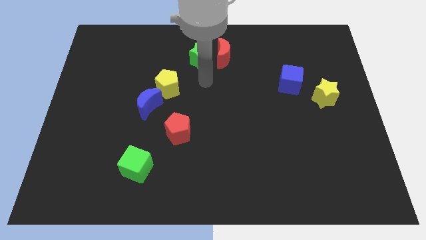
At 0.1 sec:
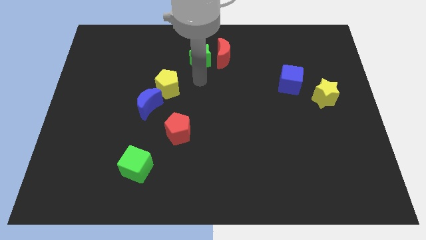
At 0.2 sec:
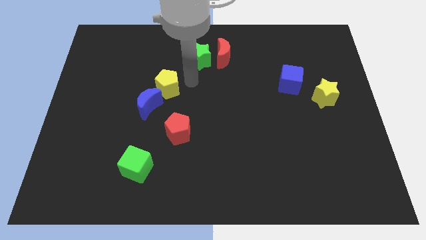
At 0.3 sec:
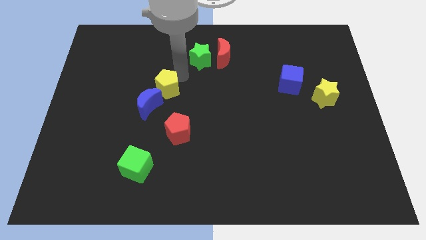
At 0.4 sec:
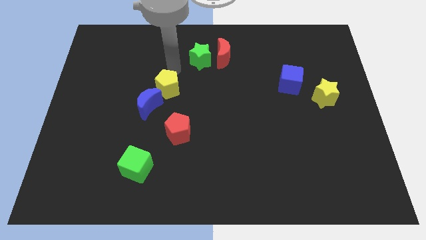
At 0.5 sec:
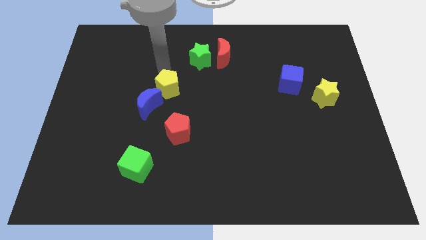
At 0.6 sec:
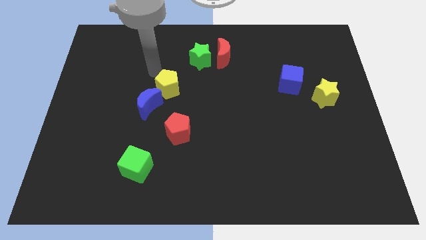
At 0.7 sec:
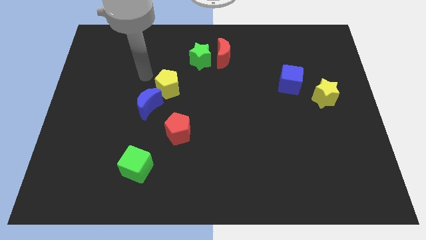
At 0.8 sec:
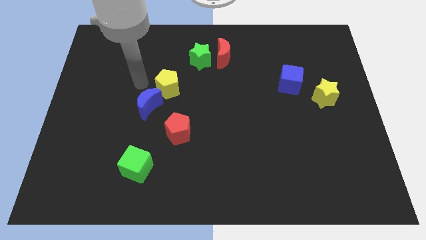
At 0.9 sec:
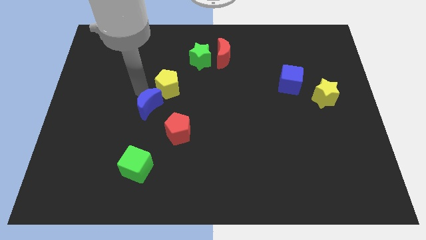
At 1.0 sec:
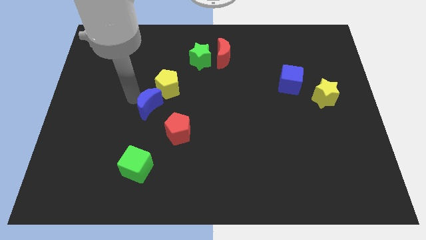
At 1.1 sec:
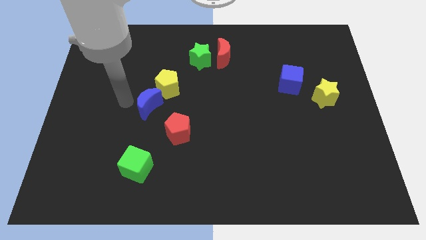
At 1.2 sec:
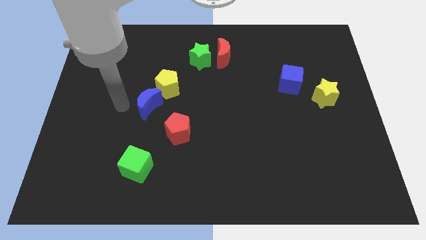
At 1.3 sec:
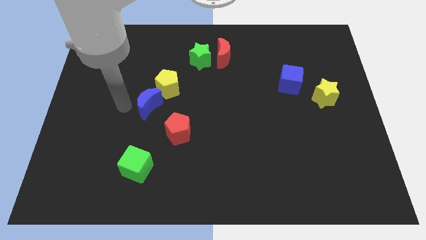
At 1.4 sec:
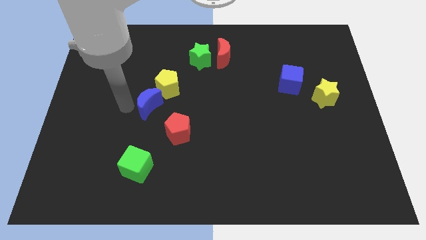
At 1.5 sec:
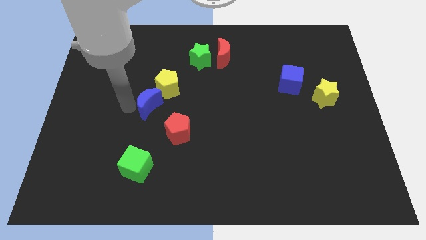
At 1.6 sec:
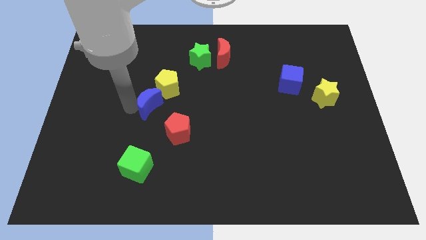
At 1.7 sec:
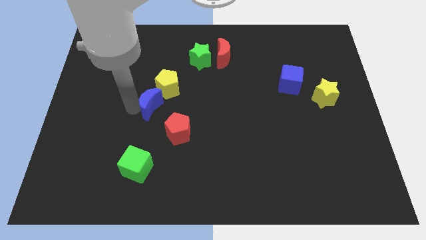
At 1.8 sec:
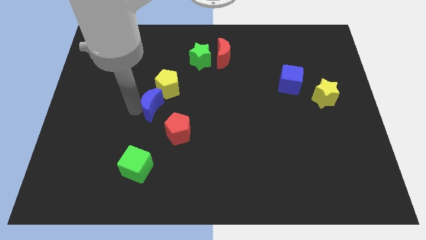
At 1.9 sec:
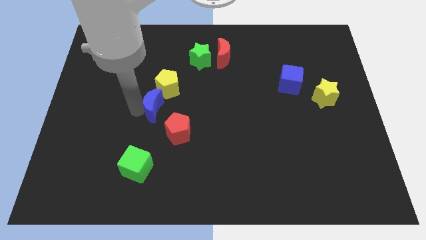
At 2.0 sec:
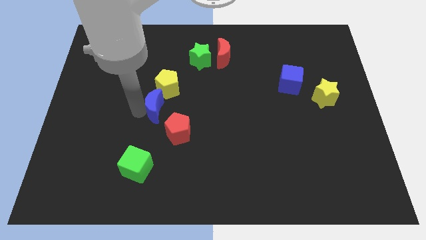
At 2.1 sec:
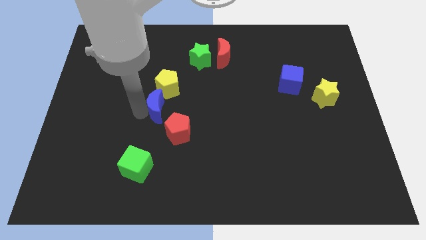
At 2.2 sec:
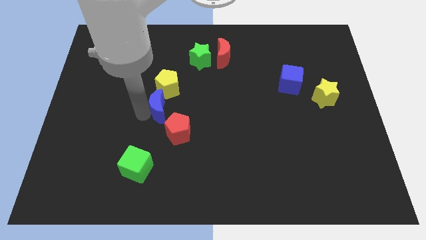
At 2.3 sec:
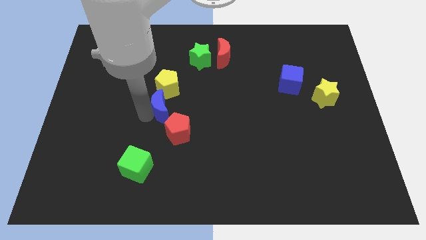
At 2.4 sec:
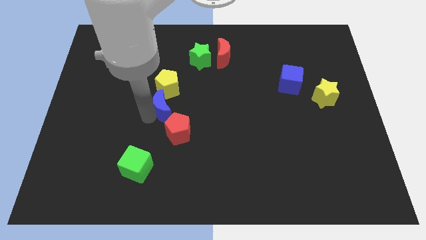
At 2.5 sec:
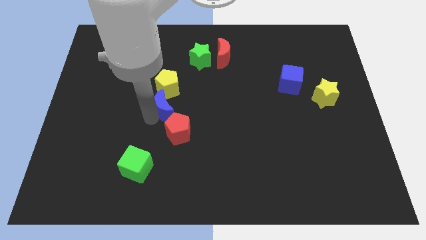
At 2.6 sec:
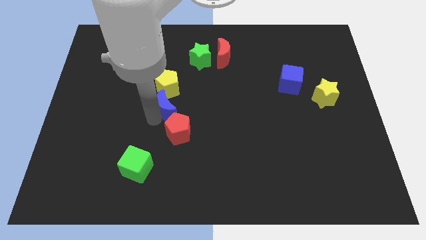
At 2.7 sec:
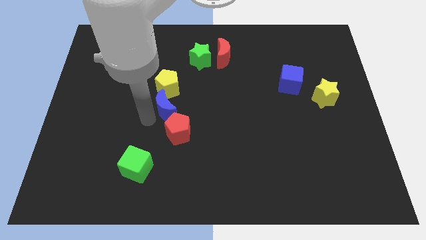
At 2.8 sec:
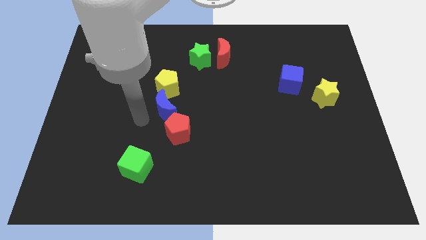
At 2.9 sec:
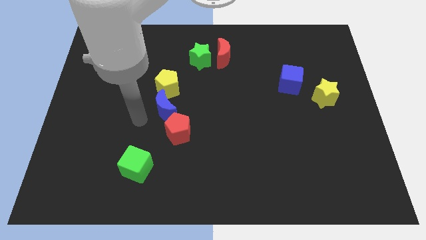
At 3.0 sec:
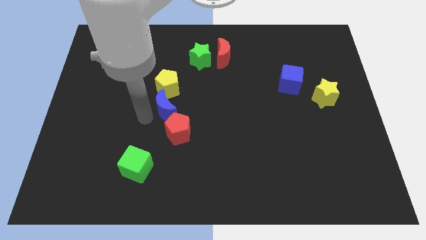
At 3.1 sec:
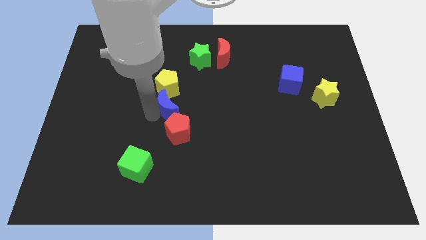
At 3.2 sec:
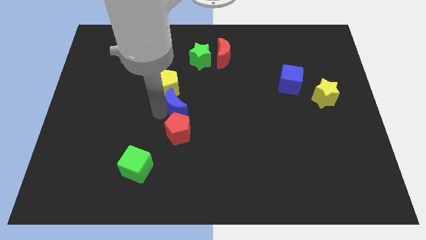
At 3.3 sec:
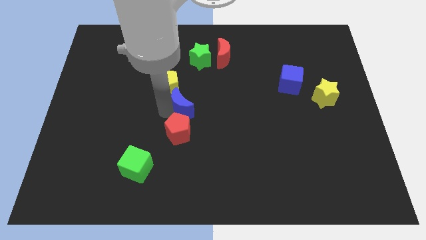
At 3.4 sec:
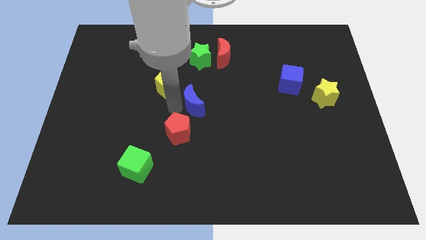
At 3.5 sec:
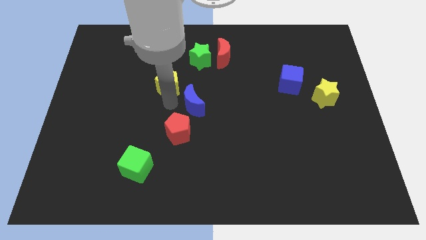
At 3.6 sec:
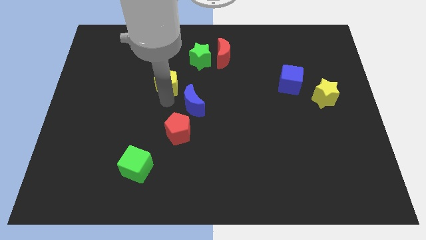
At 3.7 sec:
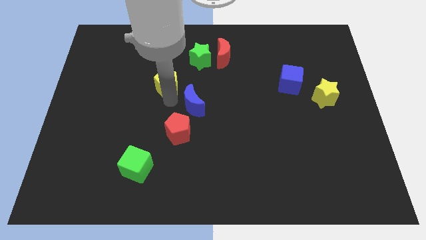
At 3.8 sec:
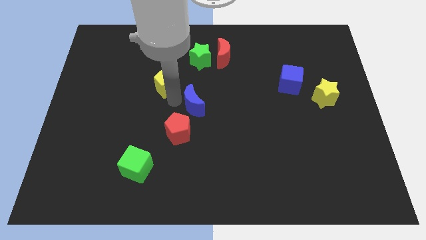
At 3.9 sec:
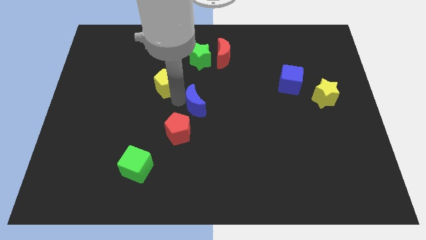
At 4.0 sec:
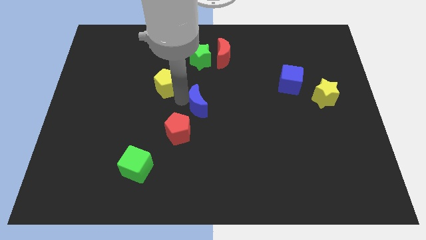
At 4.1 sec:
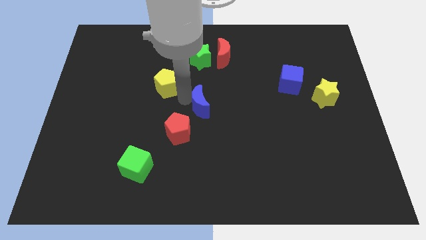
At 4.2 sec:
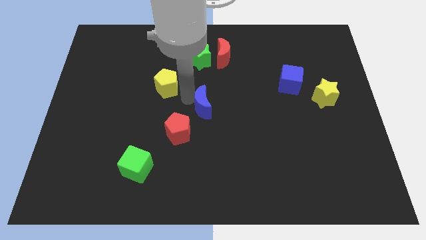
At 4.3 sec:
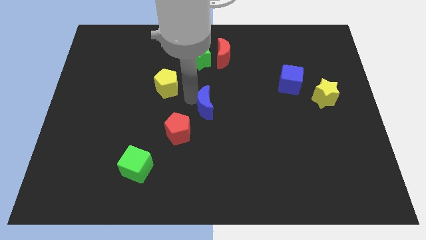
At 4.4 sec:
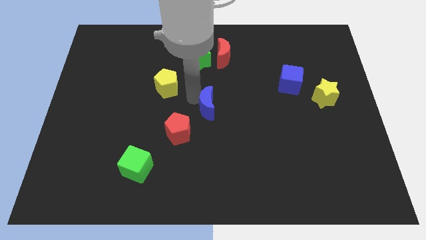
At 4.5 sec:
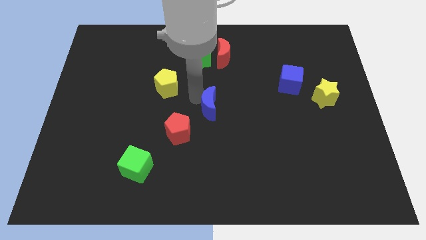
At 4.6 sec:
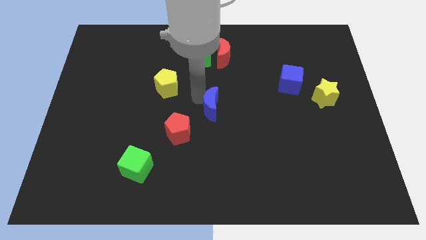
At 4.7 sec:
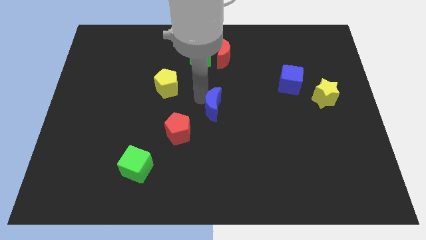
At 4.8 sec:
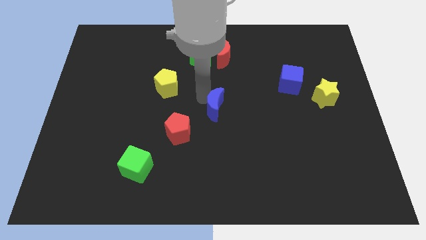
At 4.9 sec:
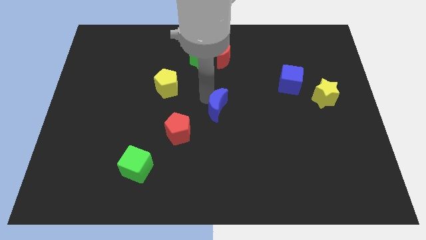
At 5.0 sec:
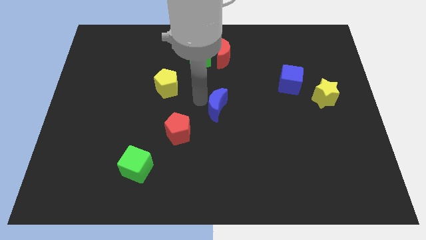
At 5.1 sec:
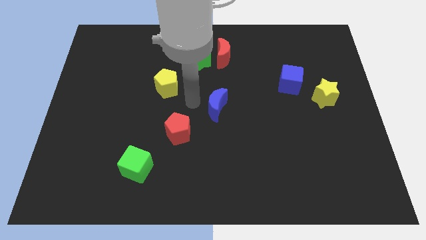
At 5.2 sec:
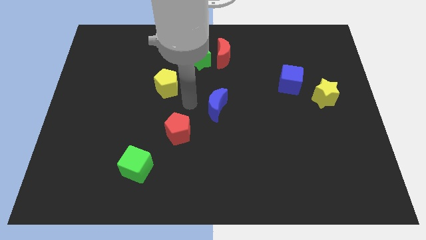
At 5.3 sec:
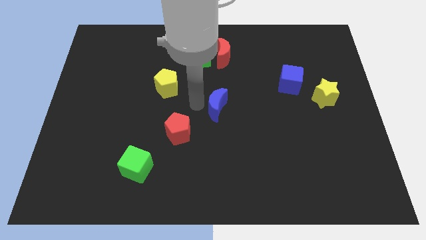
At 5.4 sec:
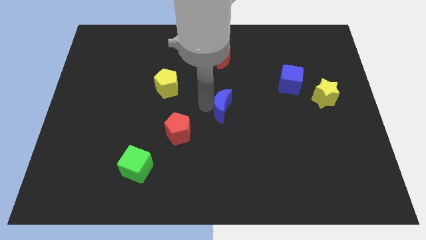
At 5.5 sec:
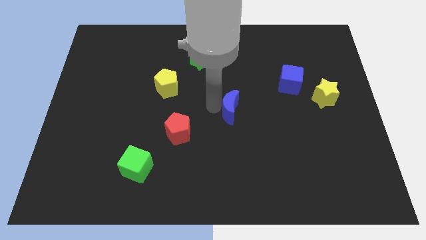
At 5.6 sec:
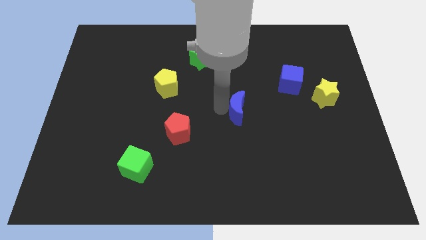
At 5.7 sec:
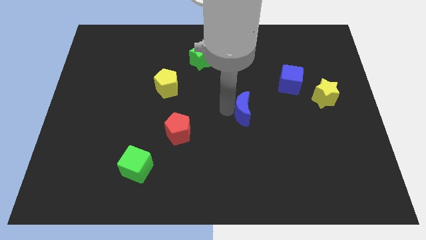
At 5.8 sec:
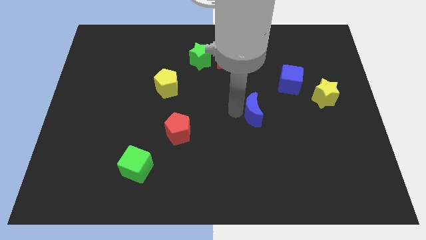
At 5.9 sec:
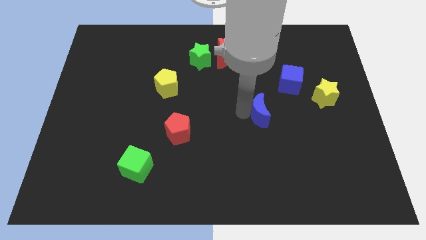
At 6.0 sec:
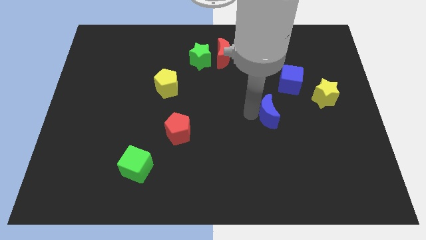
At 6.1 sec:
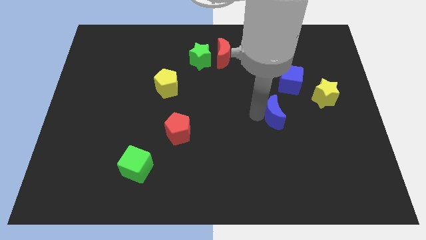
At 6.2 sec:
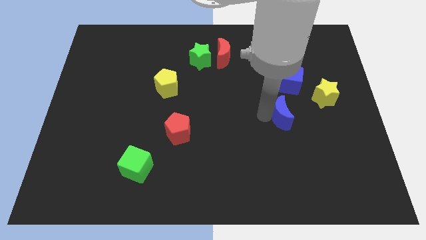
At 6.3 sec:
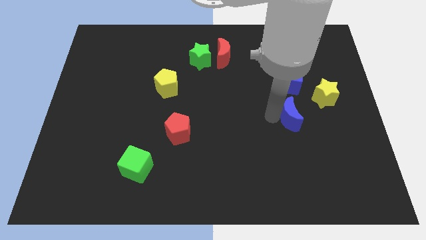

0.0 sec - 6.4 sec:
move the blue moon diagonally down and to the left of the yellow star
